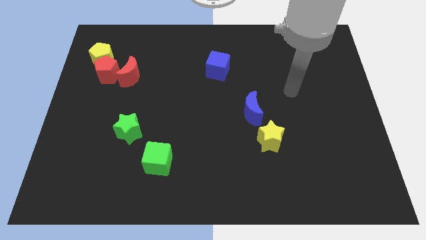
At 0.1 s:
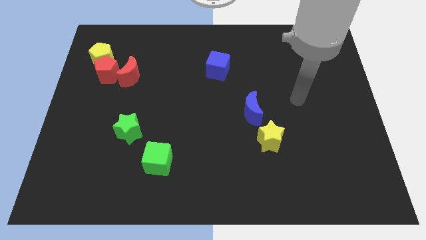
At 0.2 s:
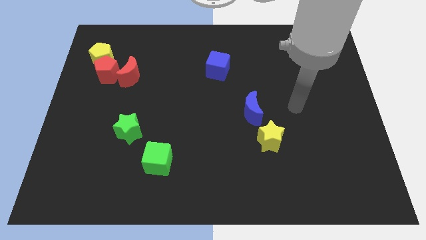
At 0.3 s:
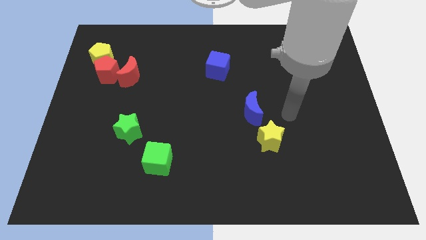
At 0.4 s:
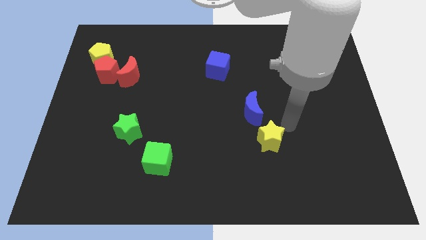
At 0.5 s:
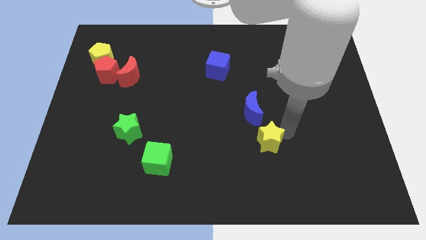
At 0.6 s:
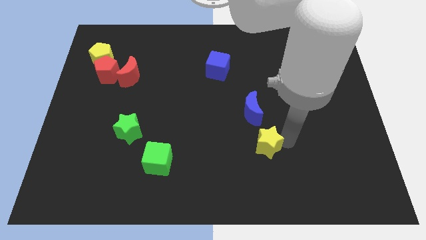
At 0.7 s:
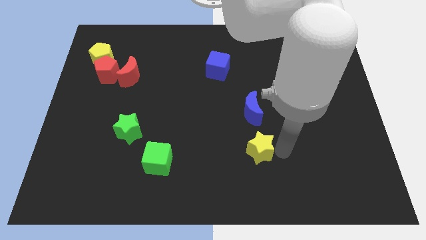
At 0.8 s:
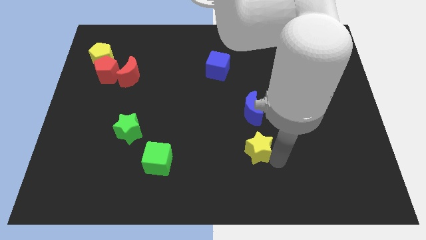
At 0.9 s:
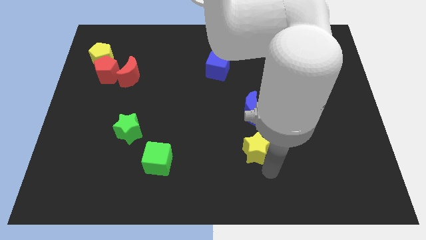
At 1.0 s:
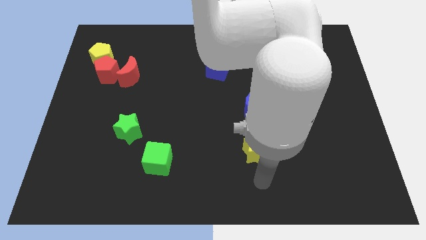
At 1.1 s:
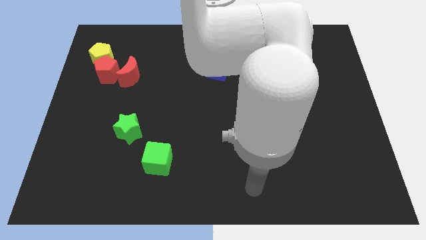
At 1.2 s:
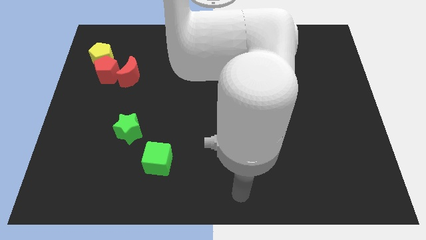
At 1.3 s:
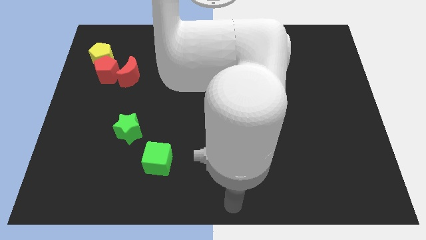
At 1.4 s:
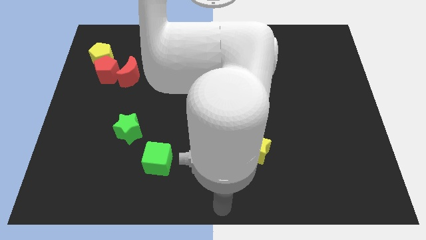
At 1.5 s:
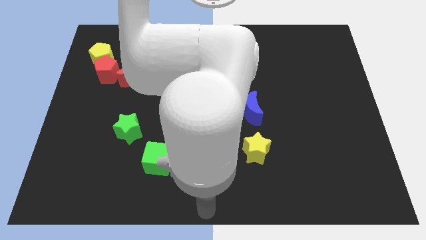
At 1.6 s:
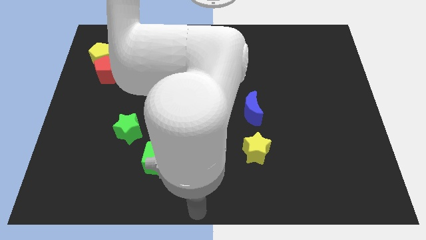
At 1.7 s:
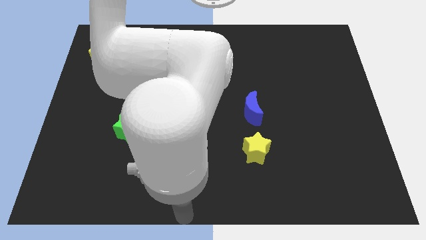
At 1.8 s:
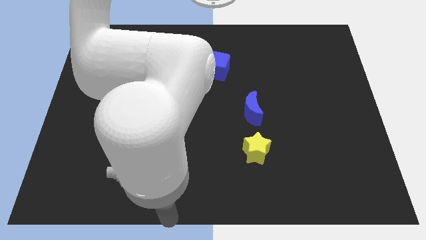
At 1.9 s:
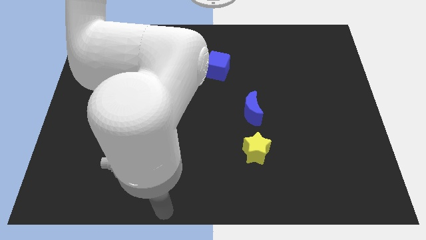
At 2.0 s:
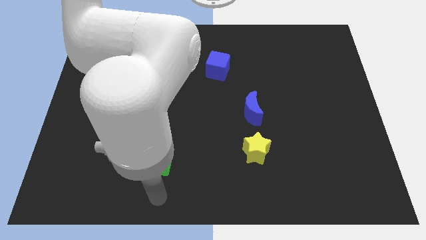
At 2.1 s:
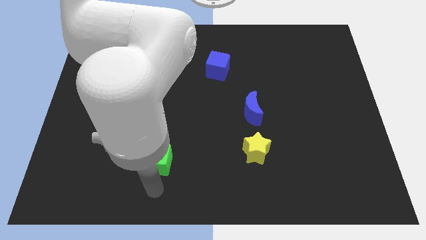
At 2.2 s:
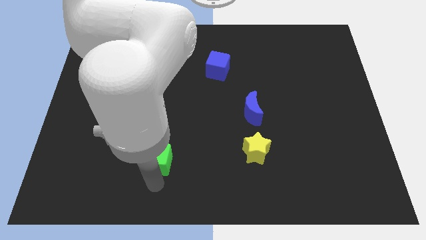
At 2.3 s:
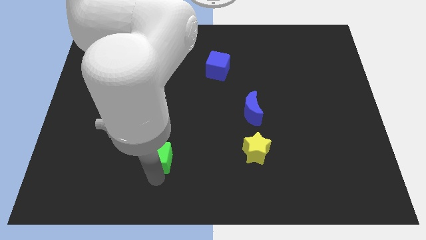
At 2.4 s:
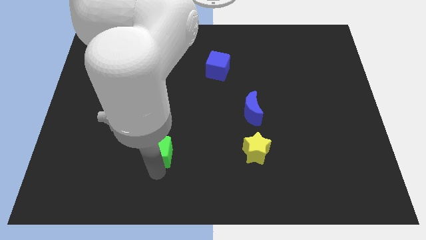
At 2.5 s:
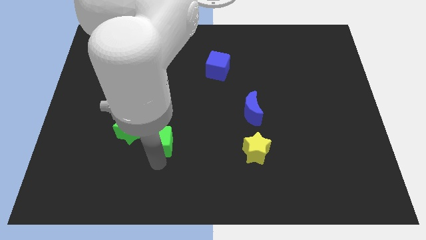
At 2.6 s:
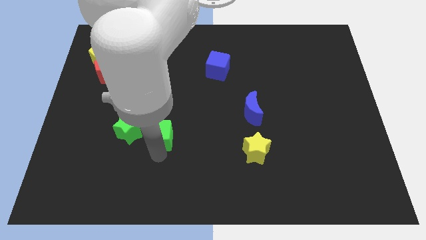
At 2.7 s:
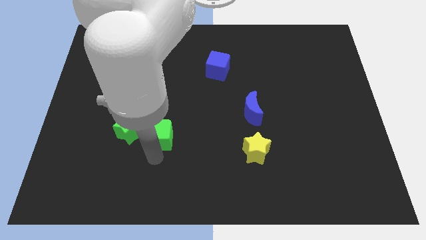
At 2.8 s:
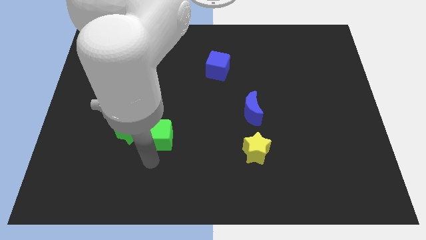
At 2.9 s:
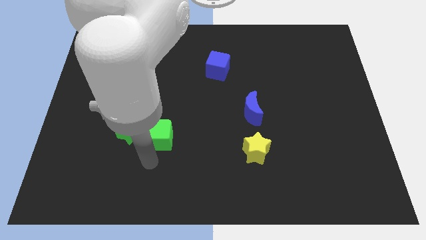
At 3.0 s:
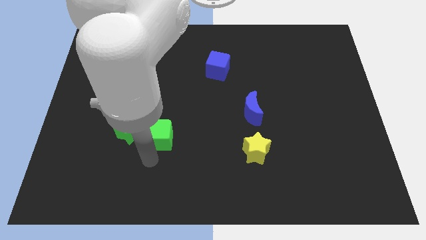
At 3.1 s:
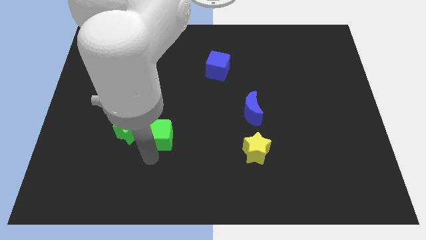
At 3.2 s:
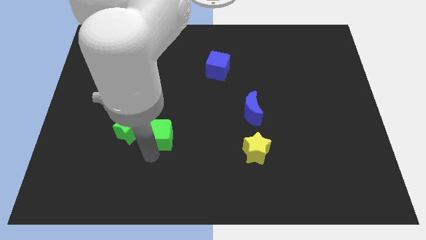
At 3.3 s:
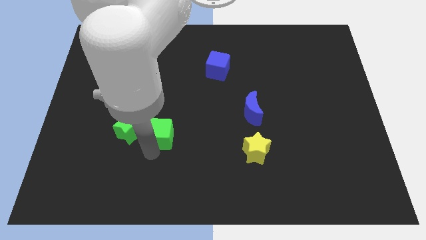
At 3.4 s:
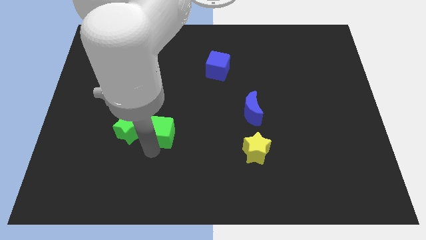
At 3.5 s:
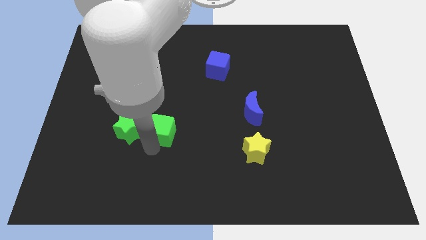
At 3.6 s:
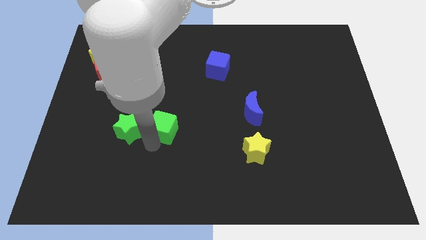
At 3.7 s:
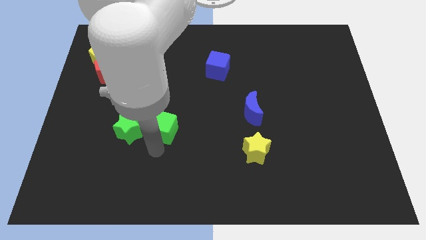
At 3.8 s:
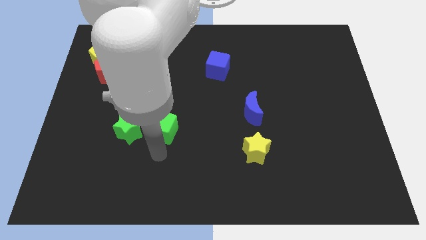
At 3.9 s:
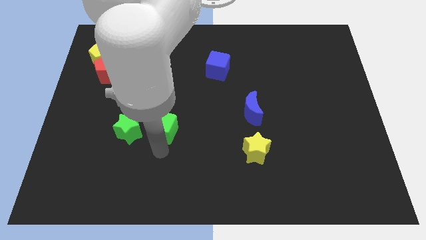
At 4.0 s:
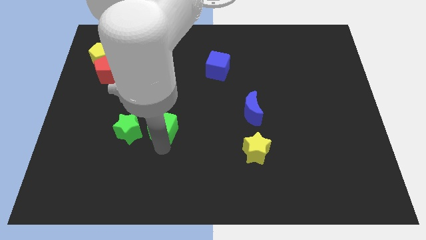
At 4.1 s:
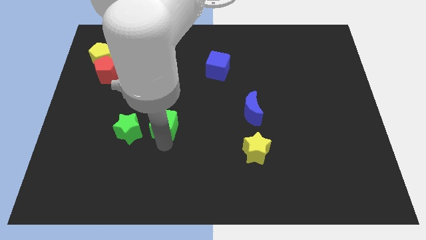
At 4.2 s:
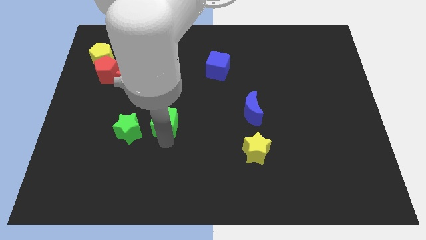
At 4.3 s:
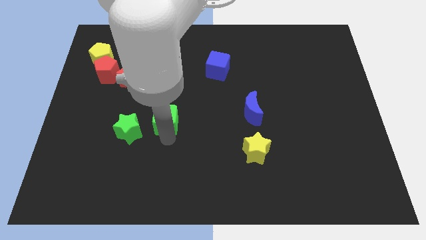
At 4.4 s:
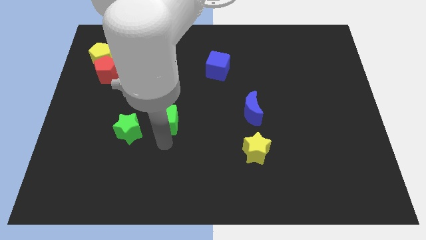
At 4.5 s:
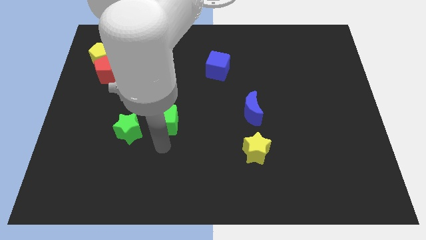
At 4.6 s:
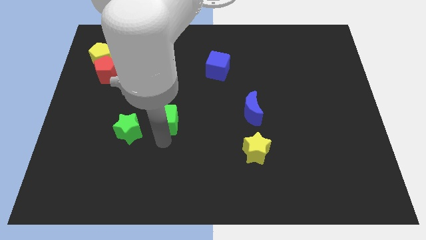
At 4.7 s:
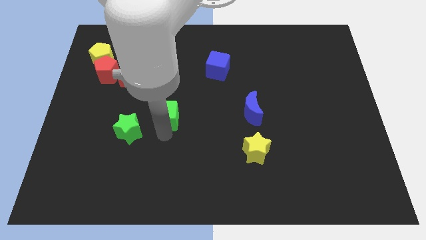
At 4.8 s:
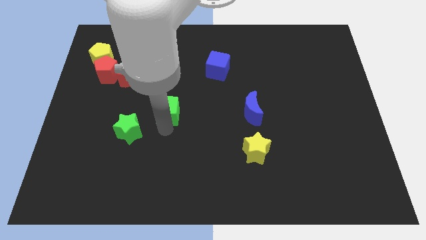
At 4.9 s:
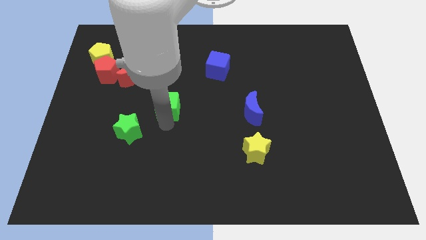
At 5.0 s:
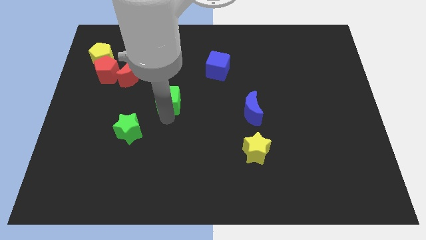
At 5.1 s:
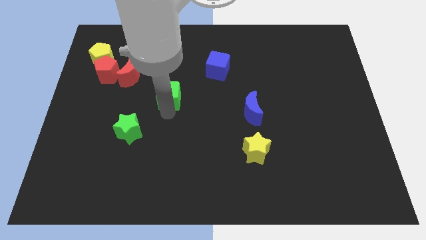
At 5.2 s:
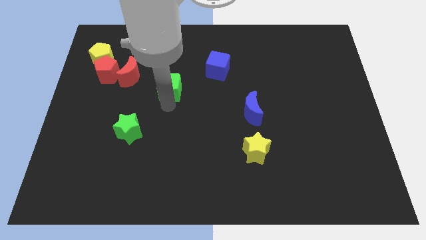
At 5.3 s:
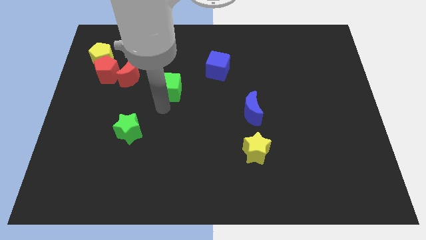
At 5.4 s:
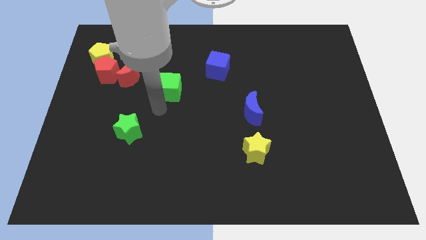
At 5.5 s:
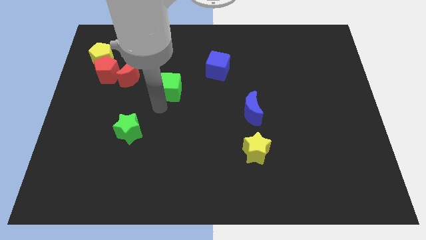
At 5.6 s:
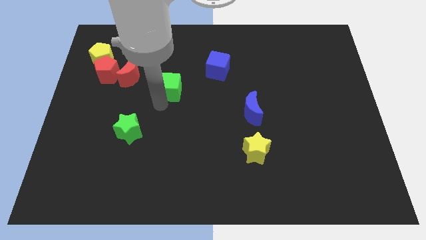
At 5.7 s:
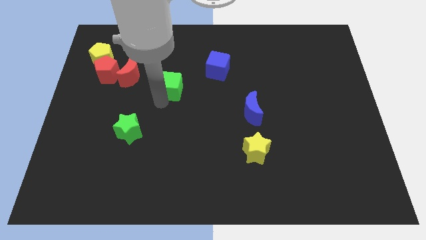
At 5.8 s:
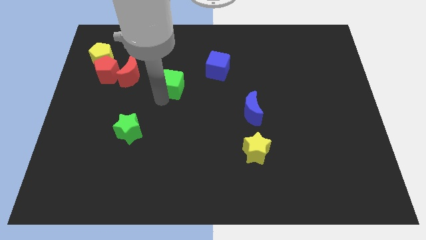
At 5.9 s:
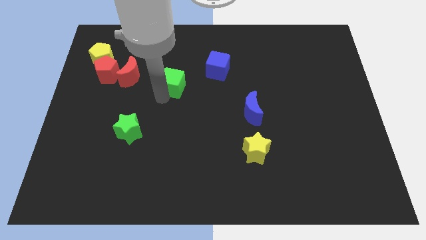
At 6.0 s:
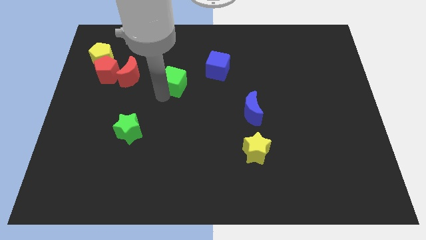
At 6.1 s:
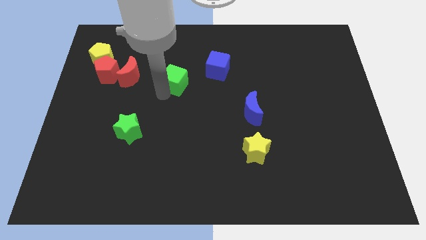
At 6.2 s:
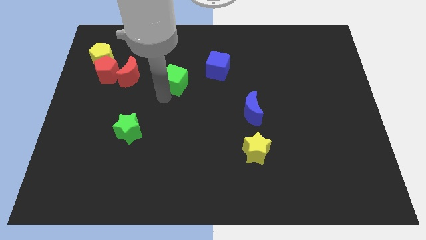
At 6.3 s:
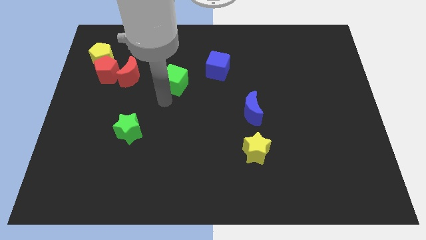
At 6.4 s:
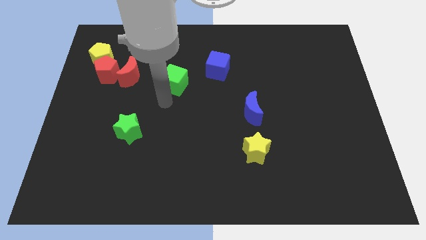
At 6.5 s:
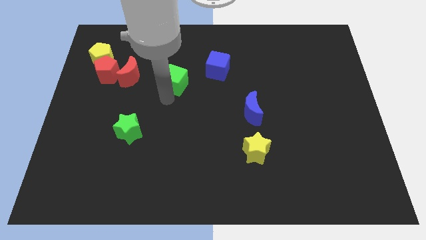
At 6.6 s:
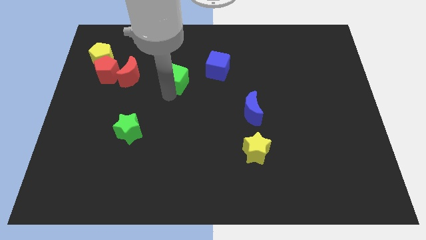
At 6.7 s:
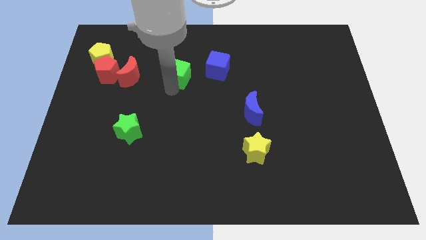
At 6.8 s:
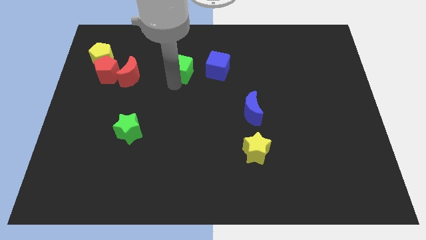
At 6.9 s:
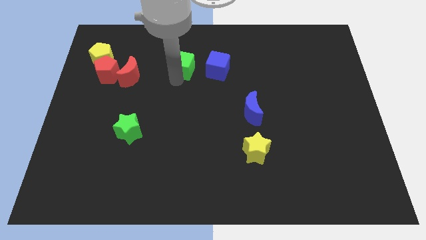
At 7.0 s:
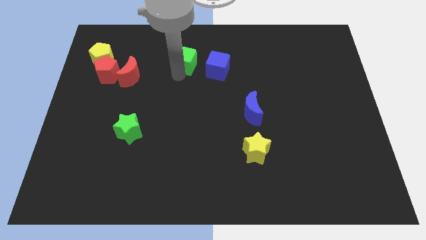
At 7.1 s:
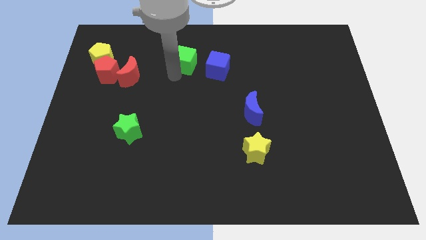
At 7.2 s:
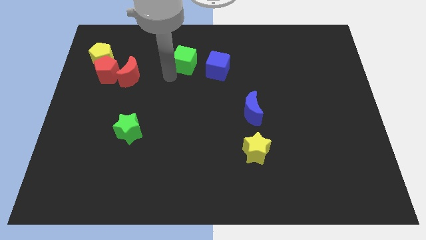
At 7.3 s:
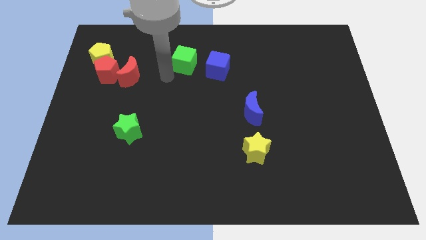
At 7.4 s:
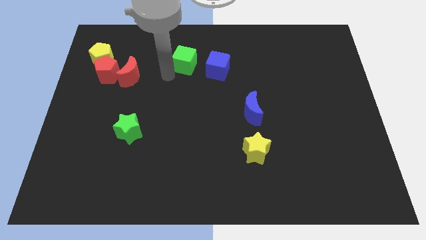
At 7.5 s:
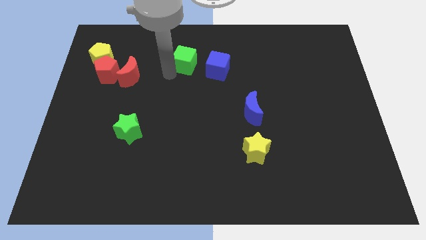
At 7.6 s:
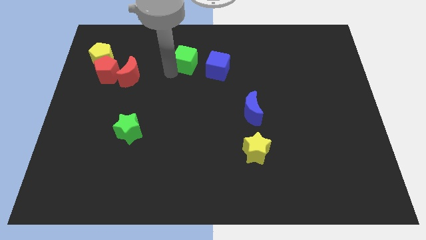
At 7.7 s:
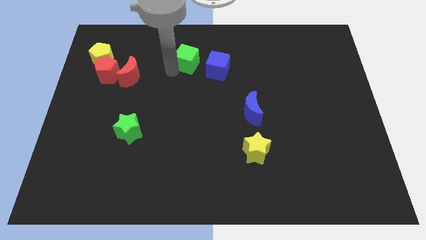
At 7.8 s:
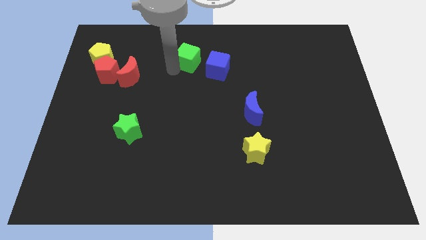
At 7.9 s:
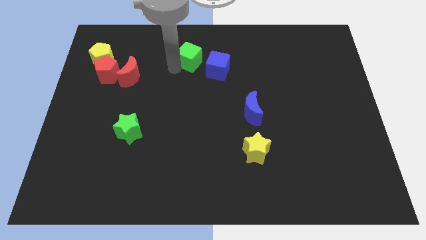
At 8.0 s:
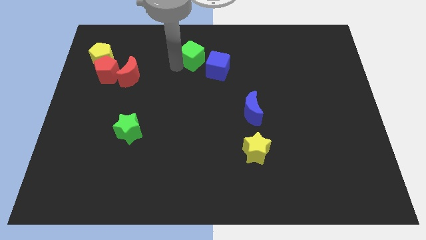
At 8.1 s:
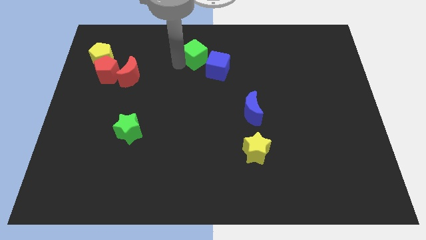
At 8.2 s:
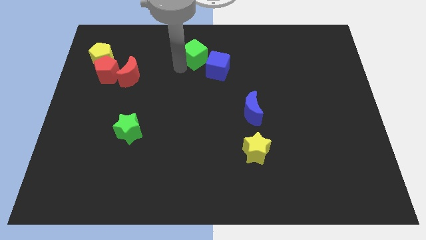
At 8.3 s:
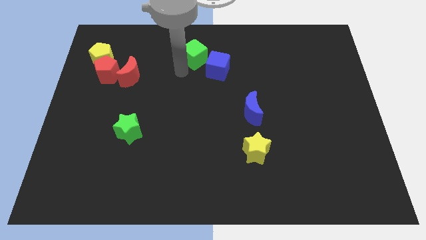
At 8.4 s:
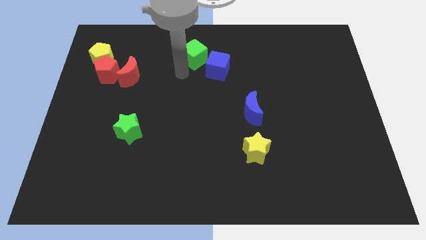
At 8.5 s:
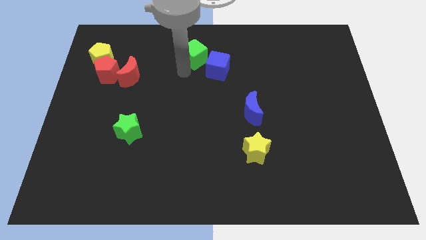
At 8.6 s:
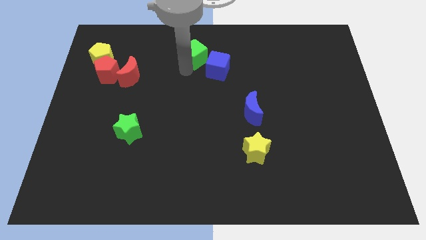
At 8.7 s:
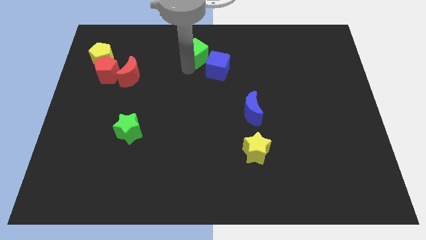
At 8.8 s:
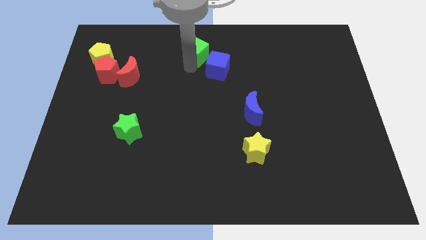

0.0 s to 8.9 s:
push the green cube to the top side
